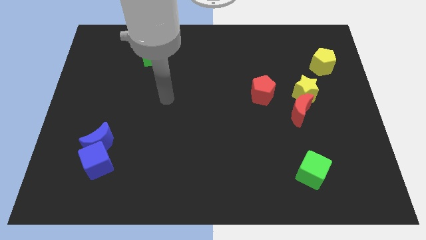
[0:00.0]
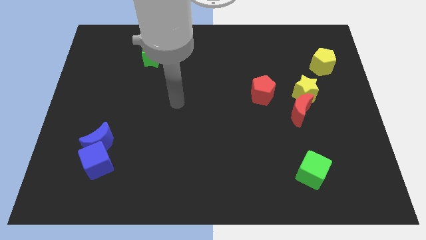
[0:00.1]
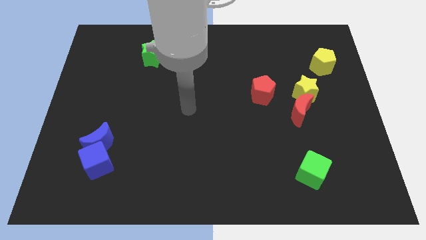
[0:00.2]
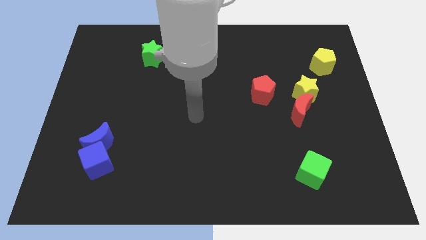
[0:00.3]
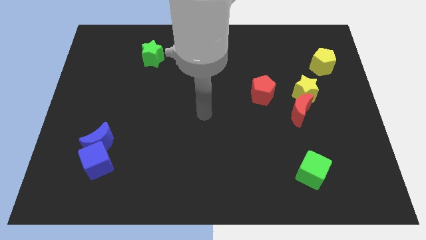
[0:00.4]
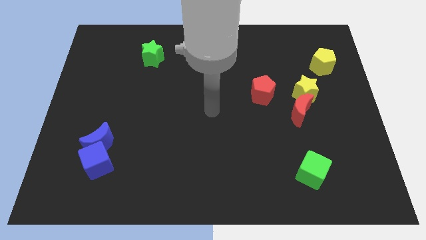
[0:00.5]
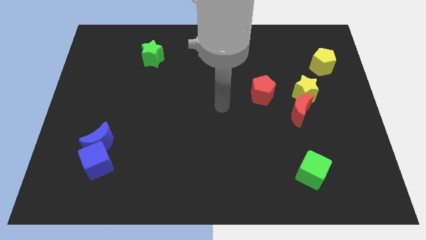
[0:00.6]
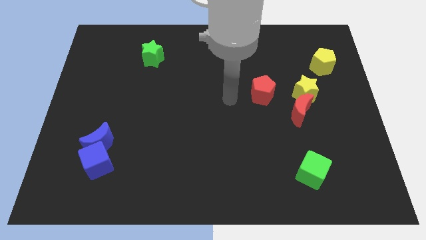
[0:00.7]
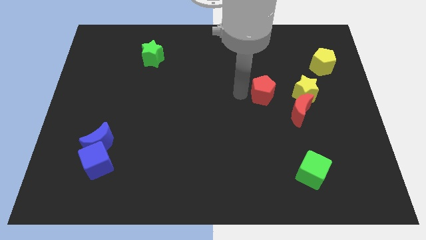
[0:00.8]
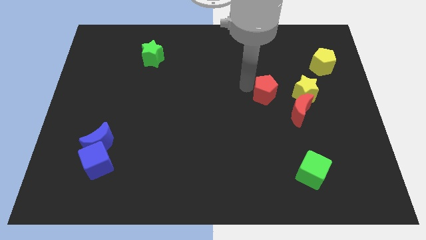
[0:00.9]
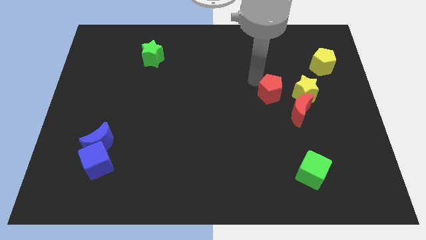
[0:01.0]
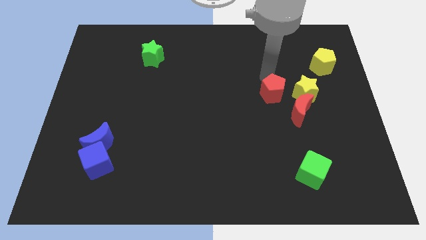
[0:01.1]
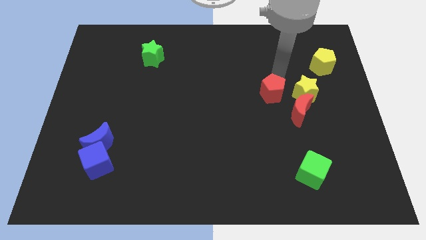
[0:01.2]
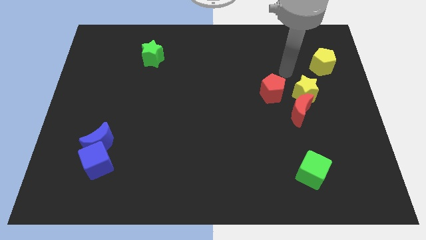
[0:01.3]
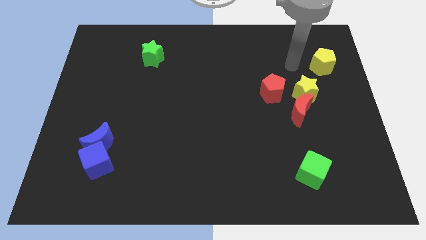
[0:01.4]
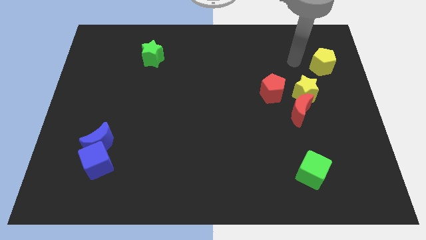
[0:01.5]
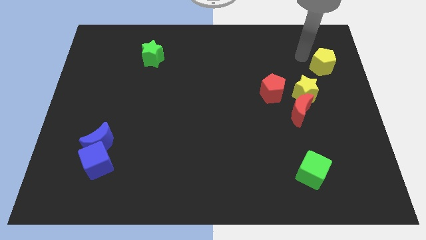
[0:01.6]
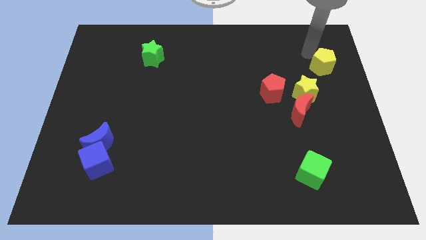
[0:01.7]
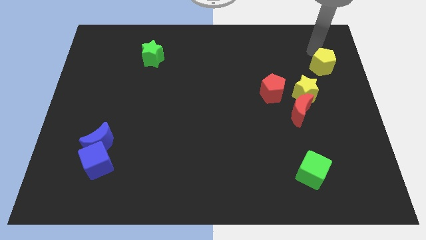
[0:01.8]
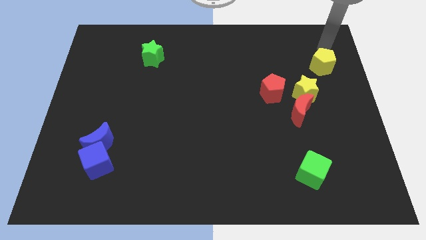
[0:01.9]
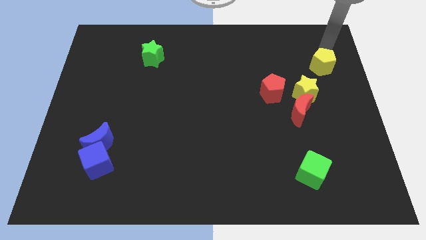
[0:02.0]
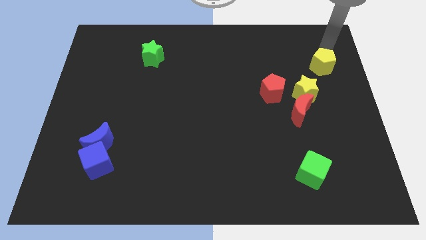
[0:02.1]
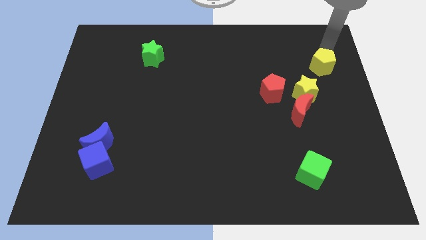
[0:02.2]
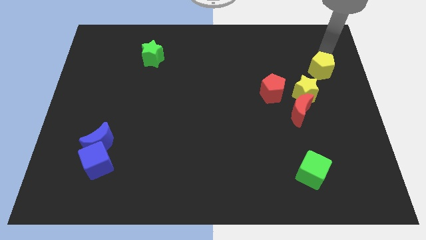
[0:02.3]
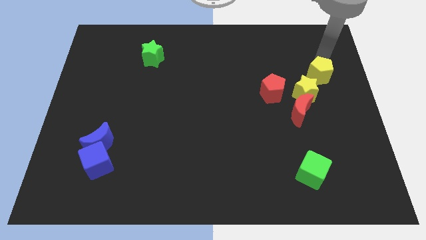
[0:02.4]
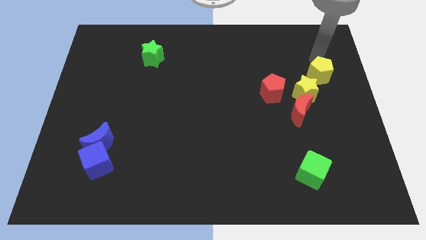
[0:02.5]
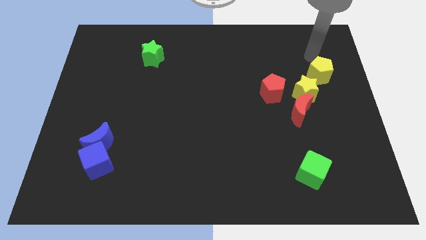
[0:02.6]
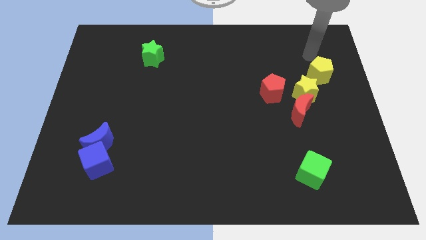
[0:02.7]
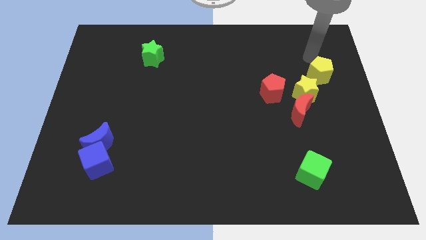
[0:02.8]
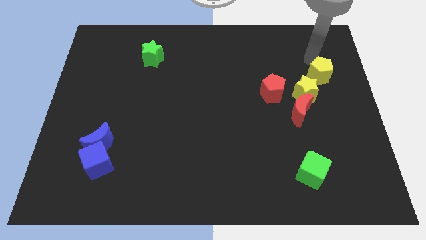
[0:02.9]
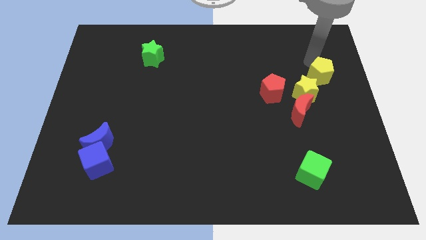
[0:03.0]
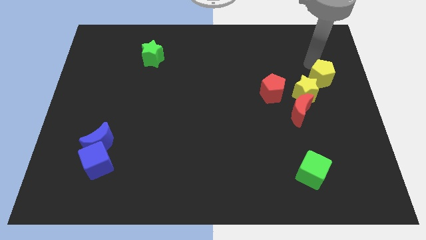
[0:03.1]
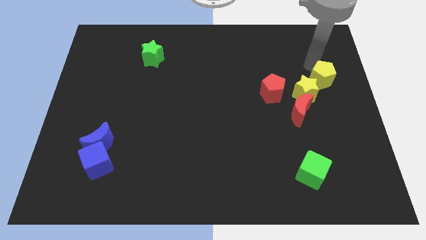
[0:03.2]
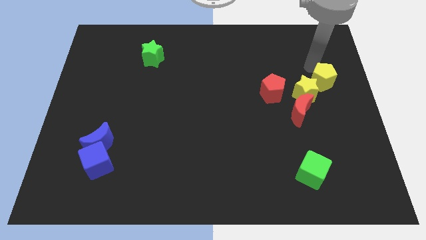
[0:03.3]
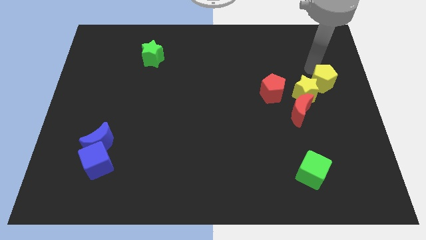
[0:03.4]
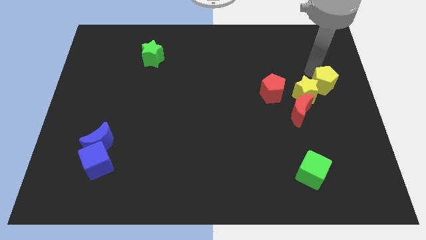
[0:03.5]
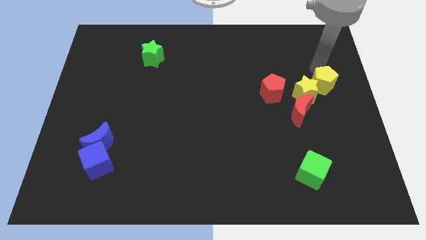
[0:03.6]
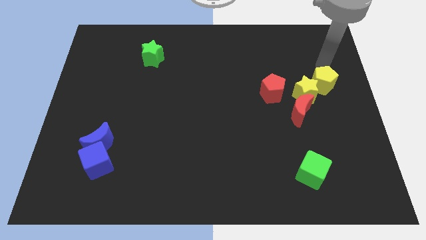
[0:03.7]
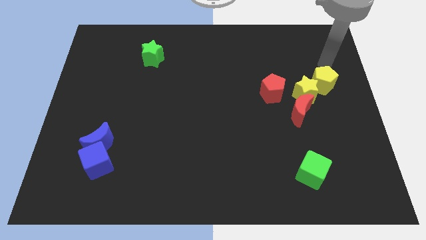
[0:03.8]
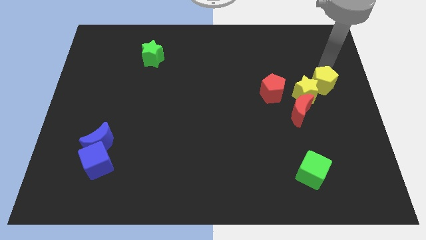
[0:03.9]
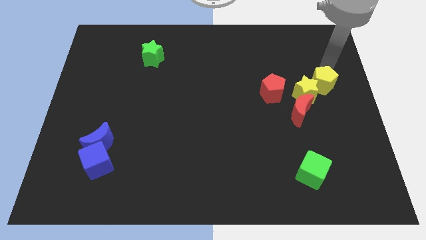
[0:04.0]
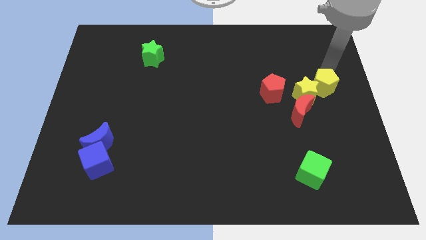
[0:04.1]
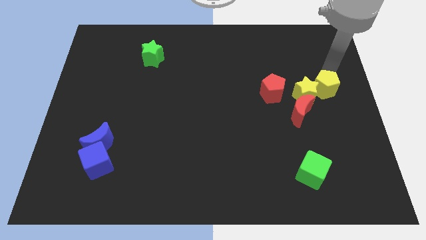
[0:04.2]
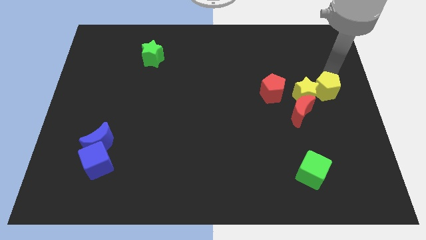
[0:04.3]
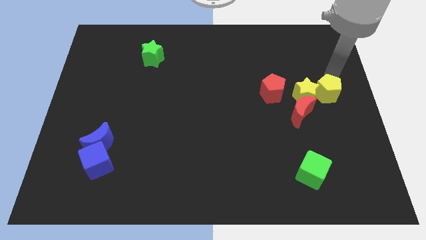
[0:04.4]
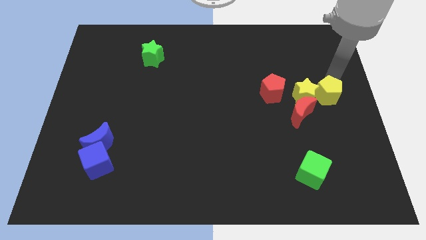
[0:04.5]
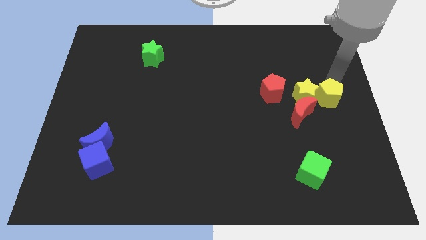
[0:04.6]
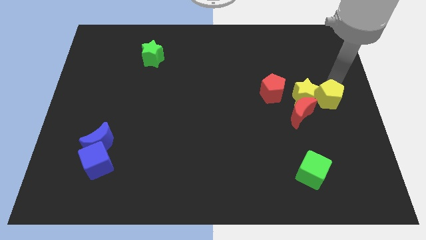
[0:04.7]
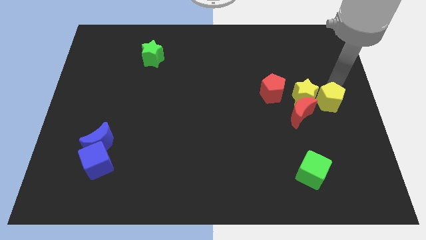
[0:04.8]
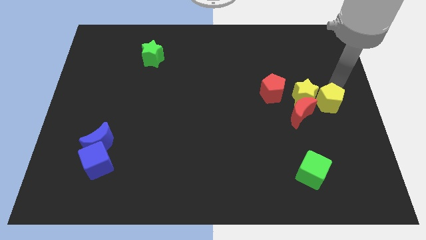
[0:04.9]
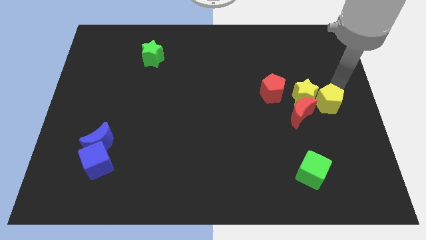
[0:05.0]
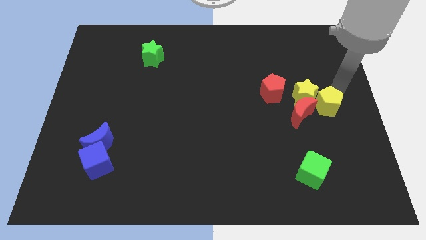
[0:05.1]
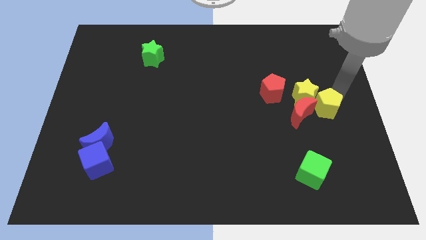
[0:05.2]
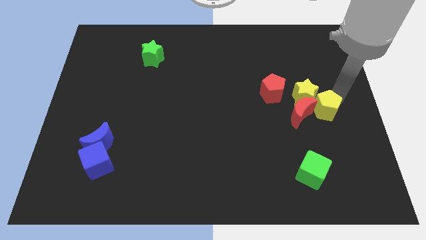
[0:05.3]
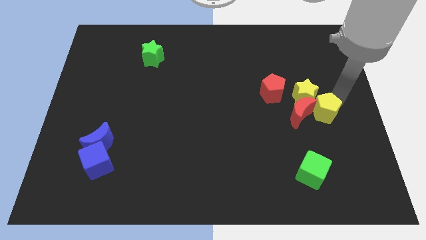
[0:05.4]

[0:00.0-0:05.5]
move the yellow pentagon next to the red moon

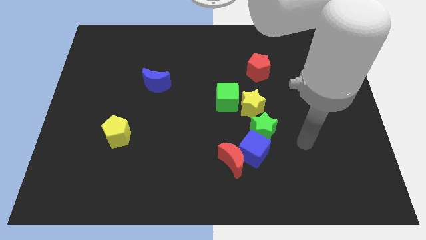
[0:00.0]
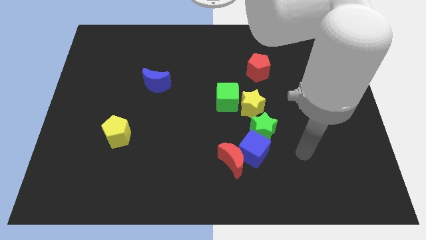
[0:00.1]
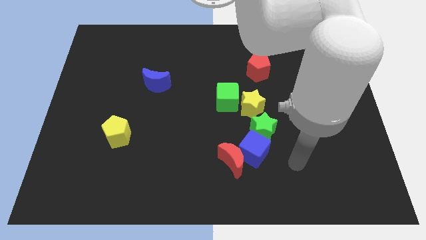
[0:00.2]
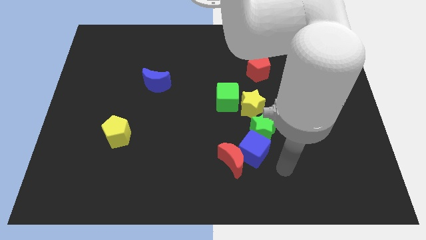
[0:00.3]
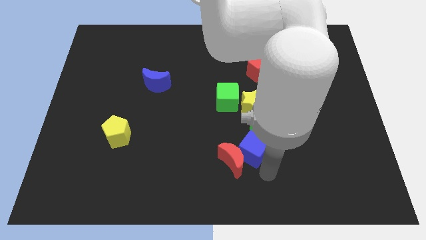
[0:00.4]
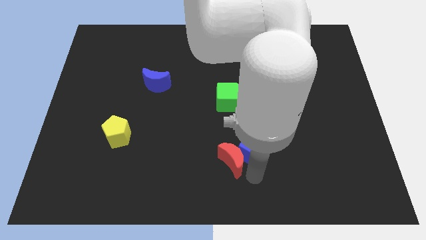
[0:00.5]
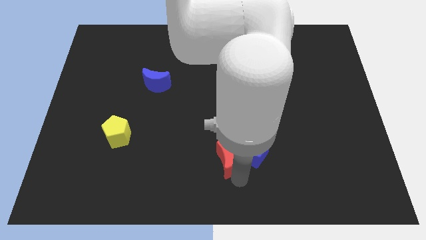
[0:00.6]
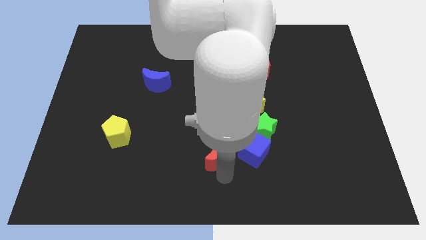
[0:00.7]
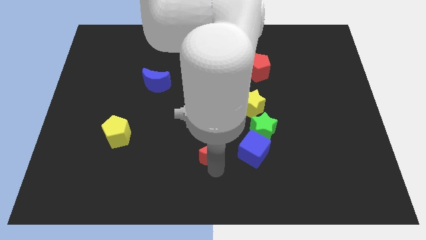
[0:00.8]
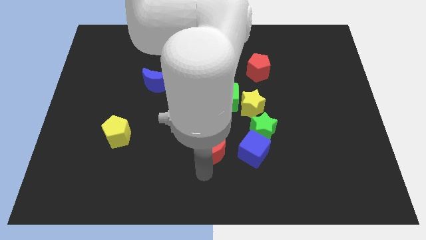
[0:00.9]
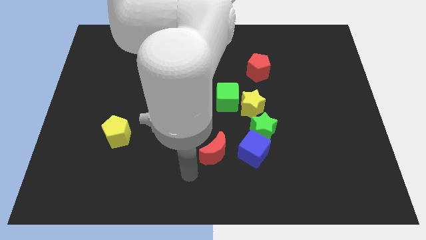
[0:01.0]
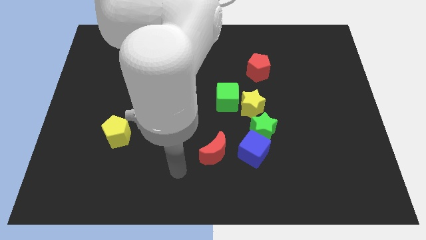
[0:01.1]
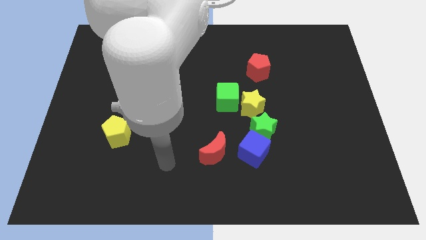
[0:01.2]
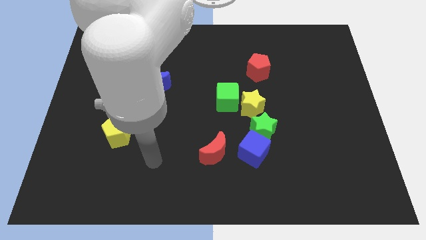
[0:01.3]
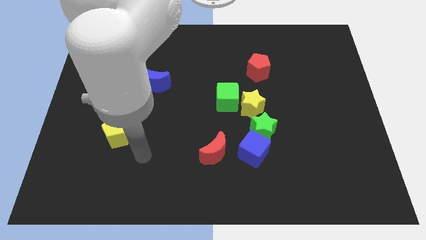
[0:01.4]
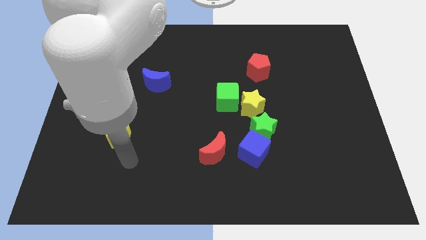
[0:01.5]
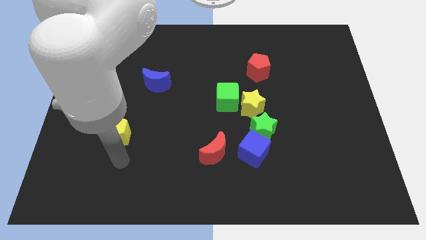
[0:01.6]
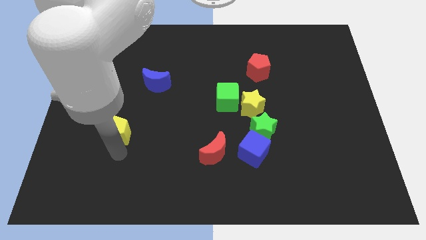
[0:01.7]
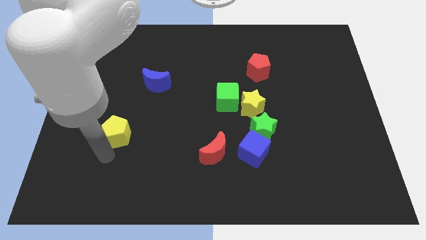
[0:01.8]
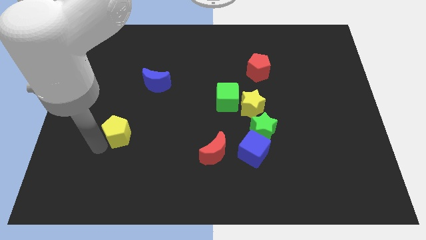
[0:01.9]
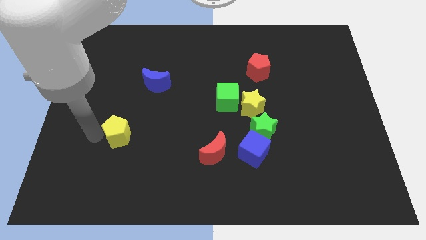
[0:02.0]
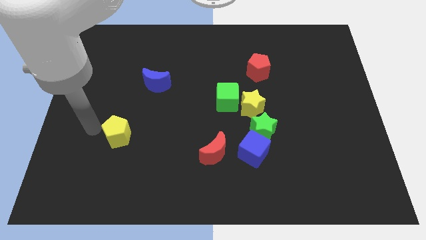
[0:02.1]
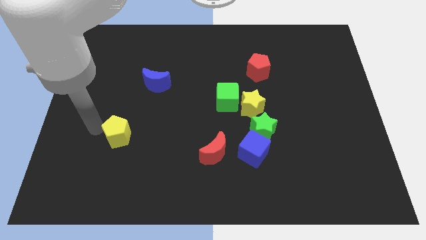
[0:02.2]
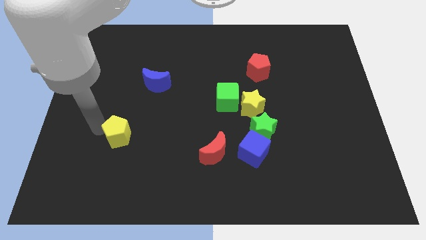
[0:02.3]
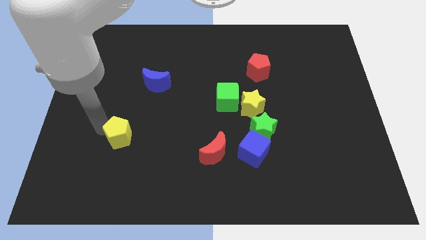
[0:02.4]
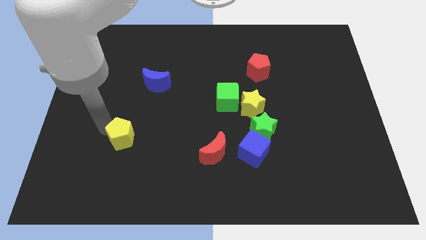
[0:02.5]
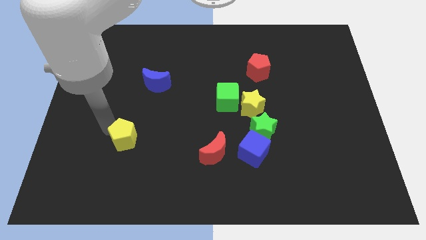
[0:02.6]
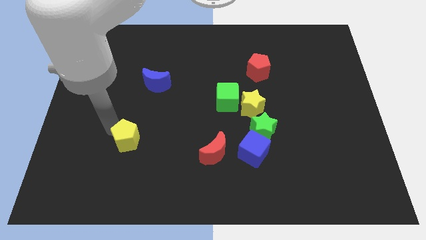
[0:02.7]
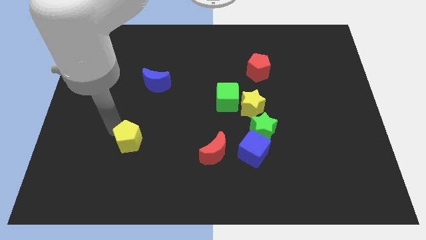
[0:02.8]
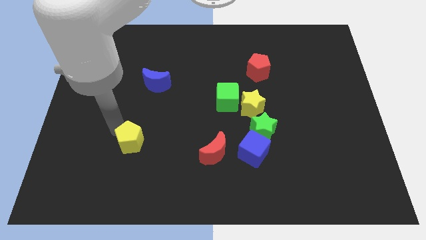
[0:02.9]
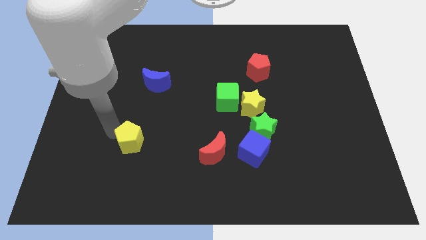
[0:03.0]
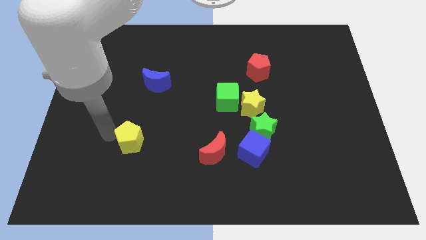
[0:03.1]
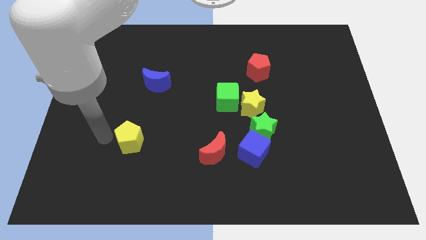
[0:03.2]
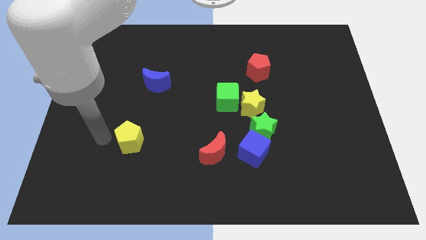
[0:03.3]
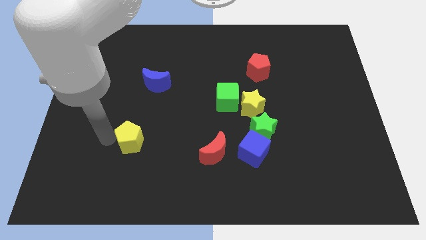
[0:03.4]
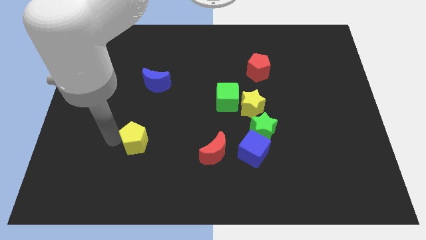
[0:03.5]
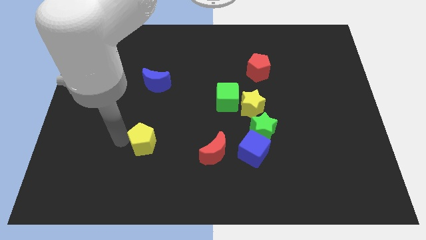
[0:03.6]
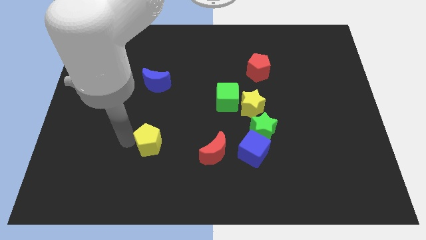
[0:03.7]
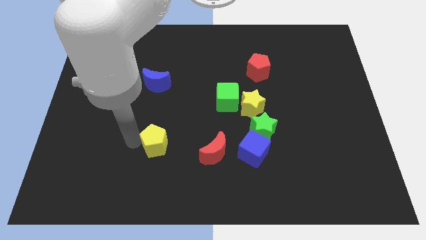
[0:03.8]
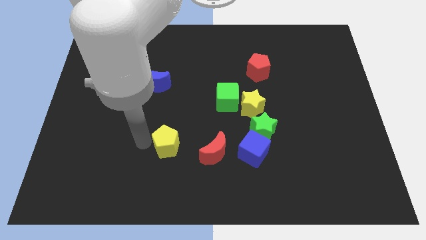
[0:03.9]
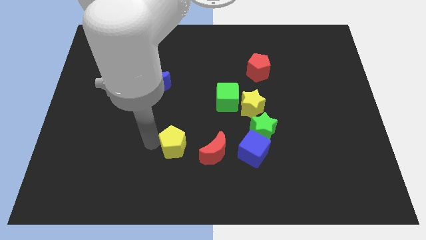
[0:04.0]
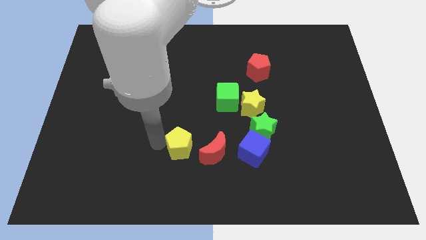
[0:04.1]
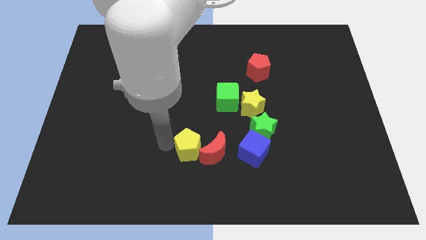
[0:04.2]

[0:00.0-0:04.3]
slide the yellow pentagon next to the red moon
